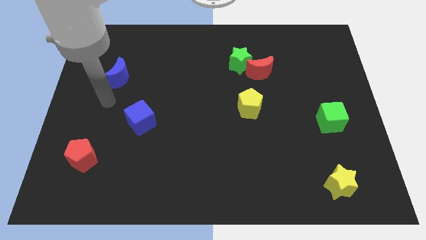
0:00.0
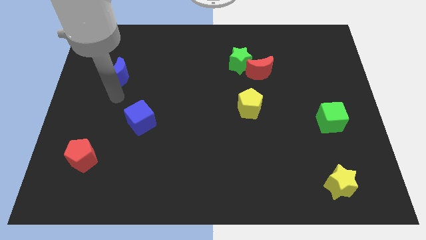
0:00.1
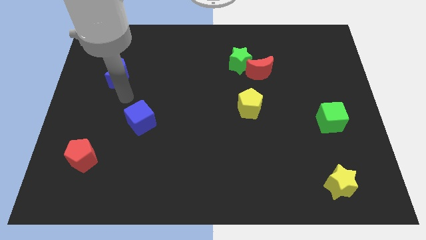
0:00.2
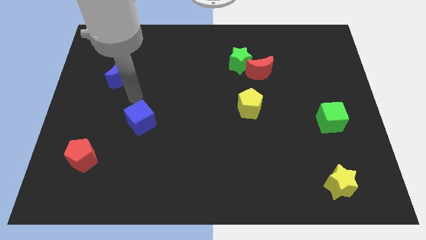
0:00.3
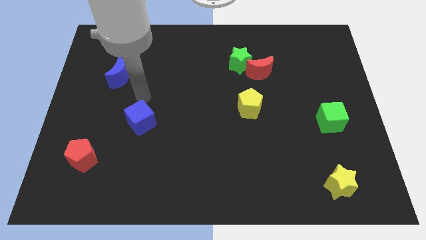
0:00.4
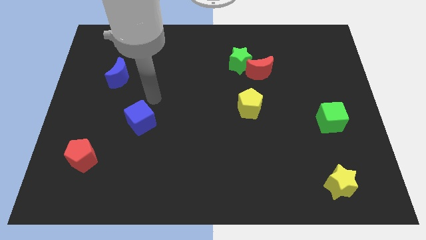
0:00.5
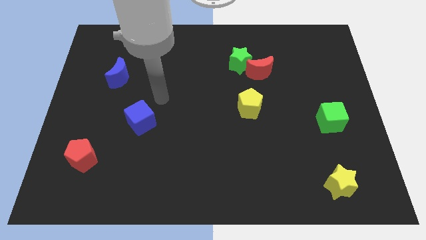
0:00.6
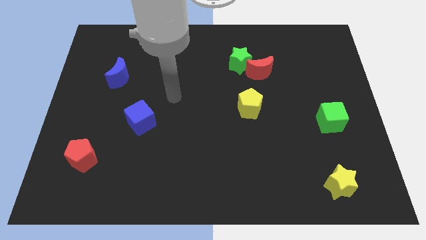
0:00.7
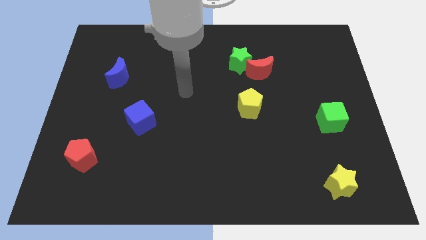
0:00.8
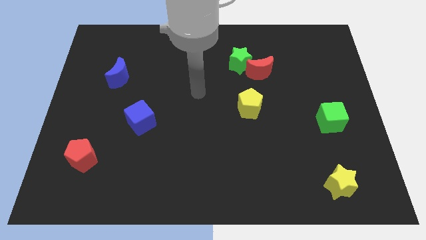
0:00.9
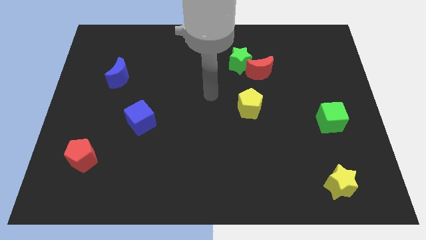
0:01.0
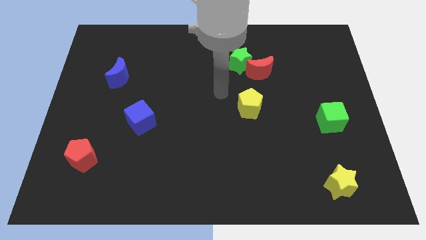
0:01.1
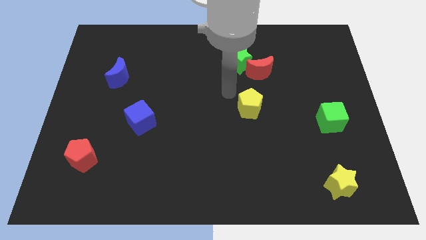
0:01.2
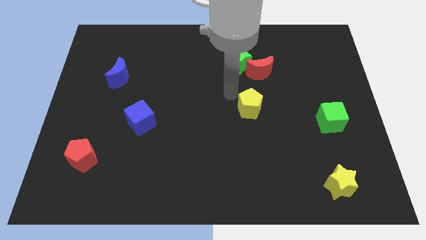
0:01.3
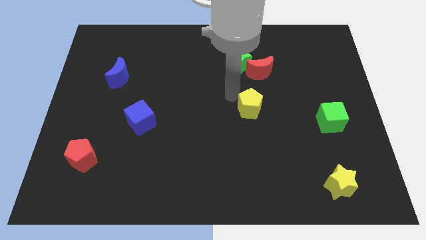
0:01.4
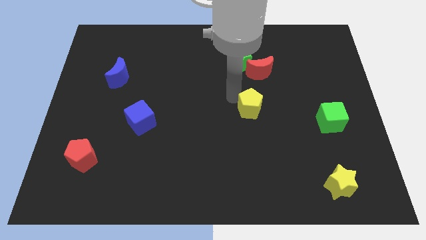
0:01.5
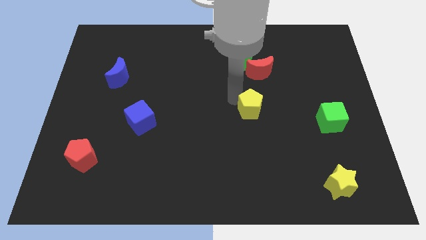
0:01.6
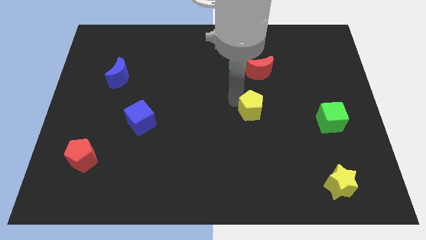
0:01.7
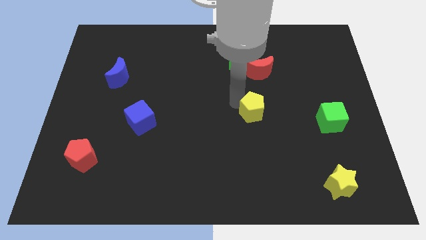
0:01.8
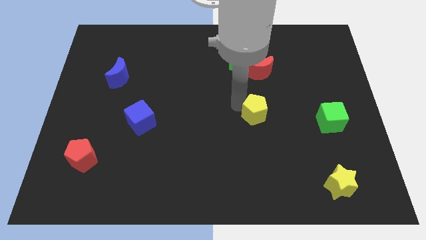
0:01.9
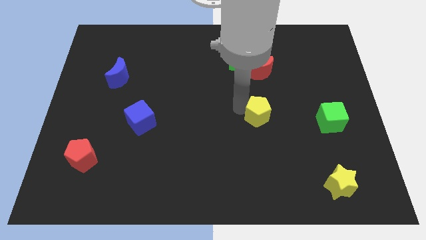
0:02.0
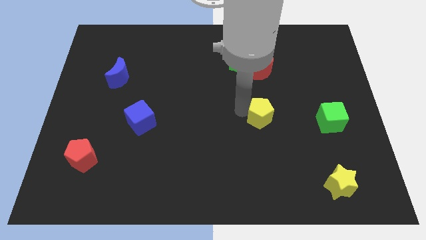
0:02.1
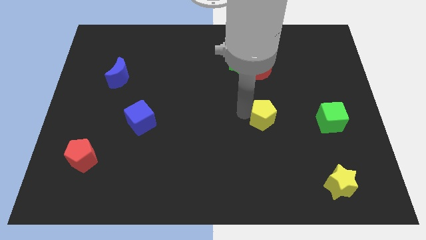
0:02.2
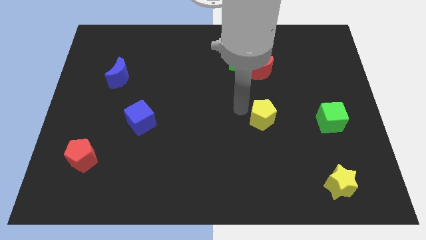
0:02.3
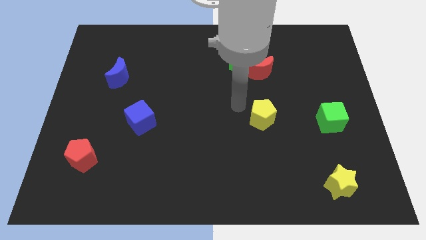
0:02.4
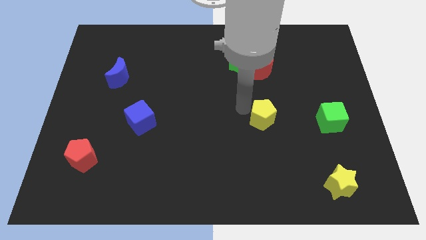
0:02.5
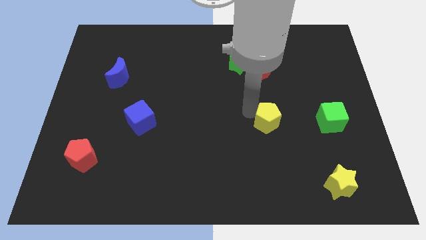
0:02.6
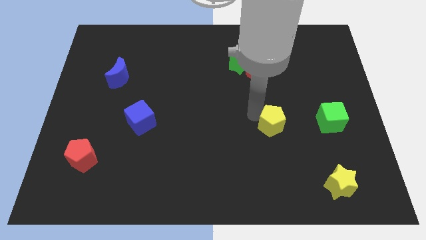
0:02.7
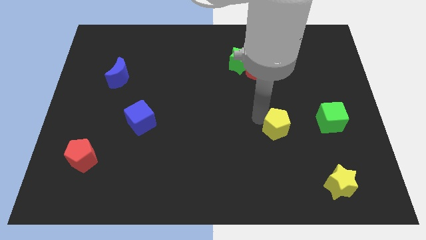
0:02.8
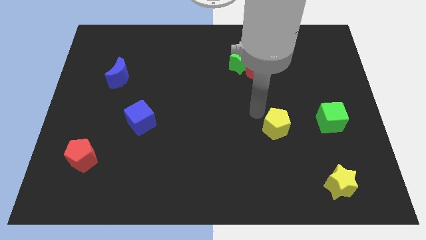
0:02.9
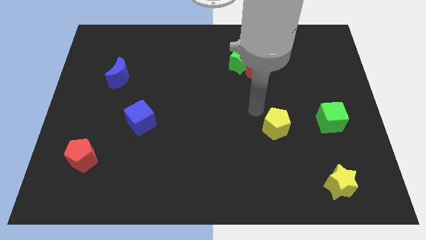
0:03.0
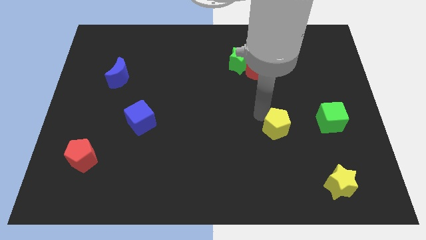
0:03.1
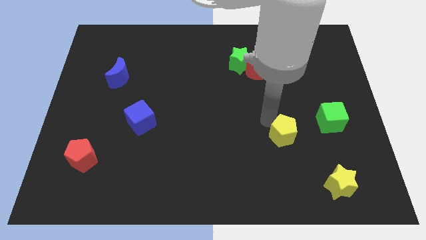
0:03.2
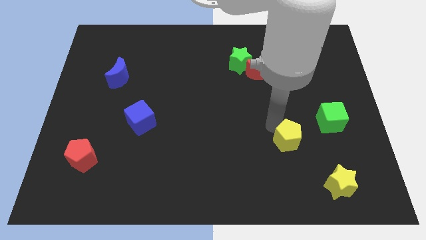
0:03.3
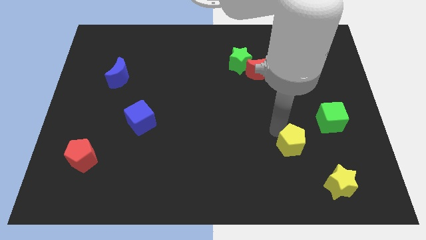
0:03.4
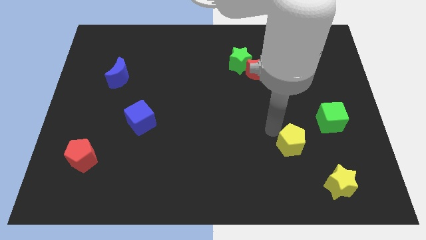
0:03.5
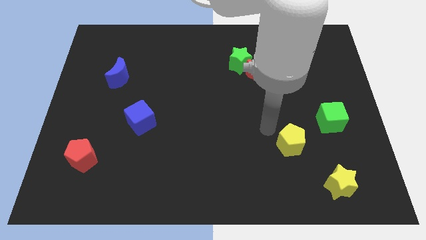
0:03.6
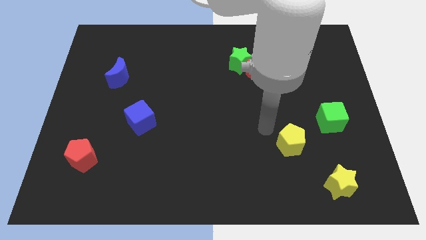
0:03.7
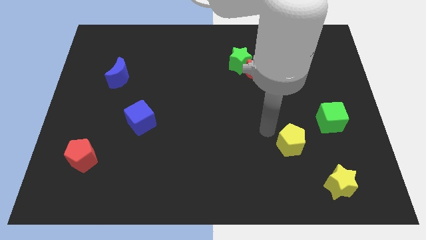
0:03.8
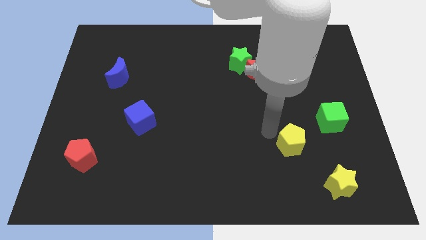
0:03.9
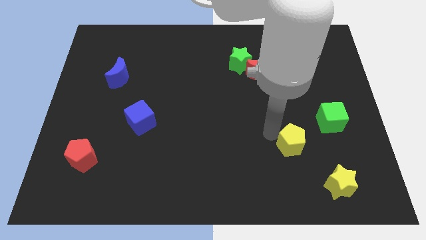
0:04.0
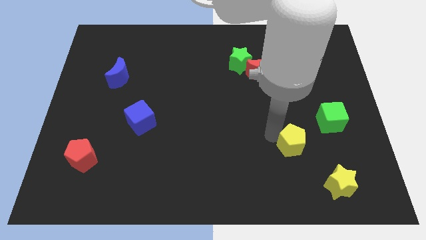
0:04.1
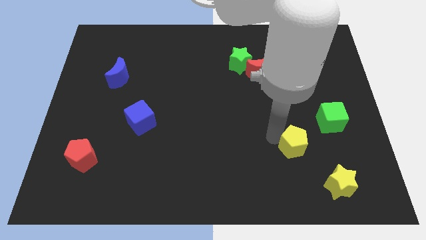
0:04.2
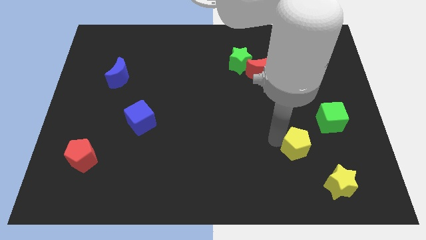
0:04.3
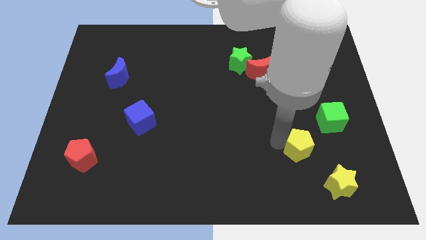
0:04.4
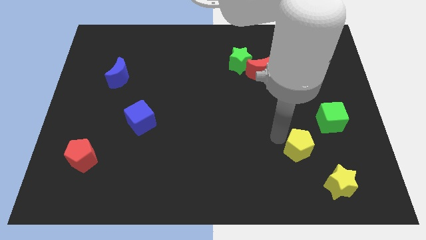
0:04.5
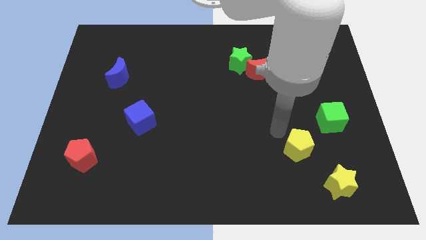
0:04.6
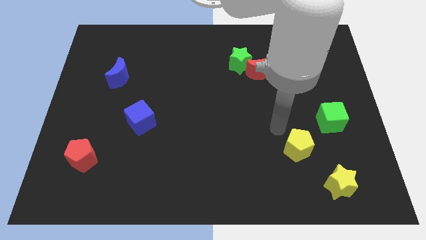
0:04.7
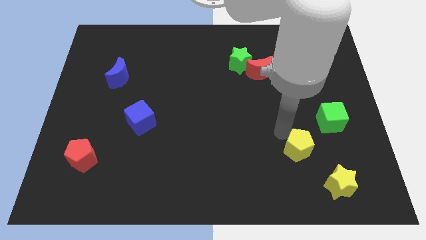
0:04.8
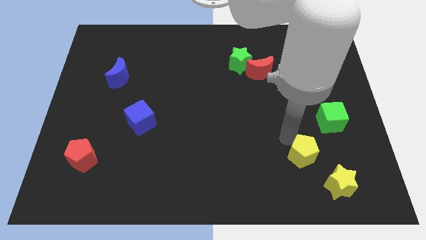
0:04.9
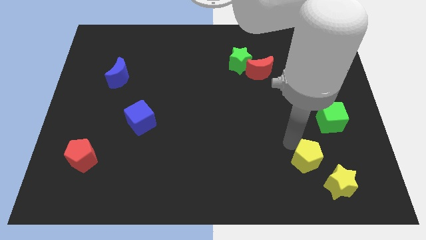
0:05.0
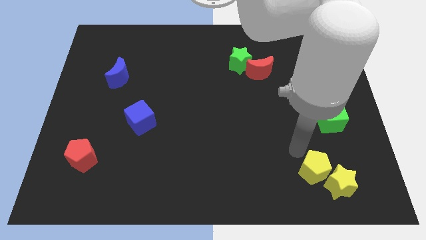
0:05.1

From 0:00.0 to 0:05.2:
move the yellow pentagon to the yellow star

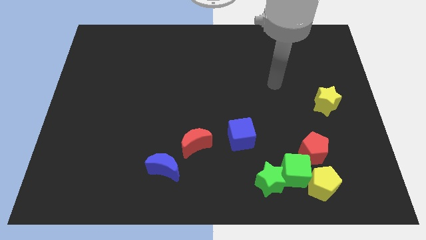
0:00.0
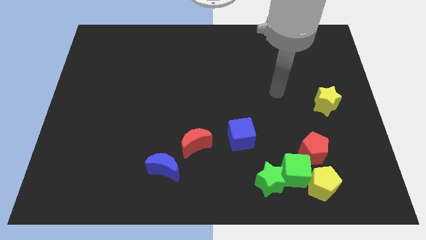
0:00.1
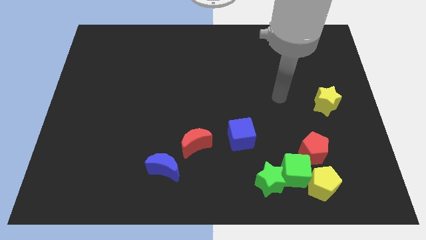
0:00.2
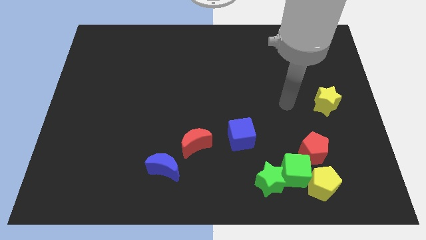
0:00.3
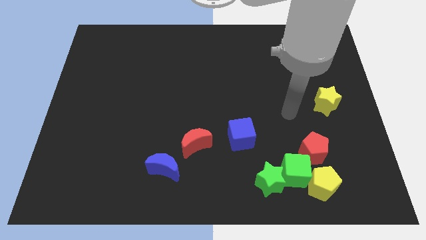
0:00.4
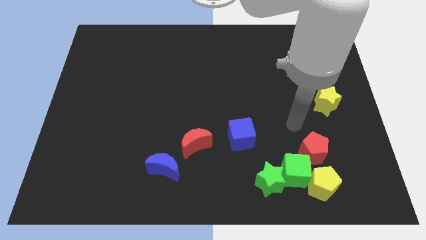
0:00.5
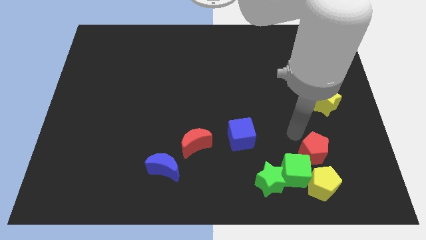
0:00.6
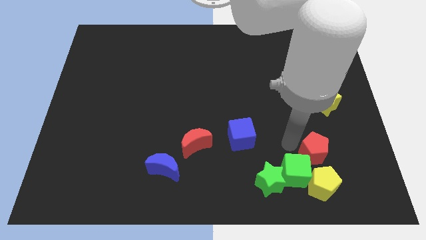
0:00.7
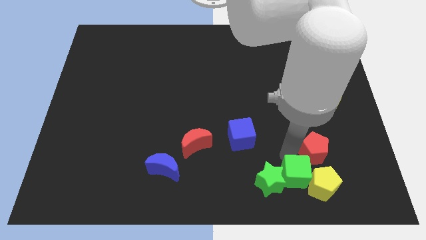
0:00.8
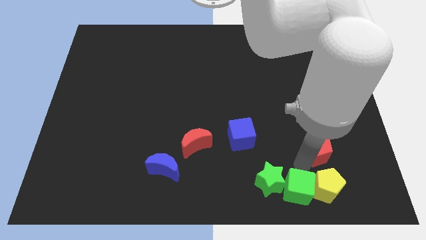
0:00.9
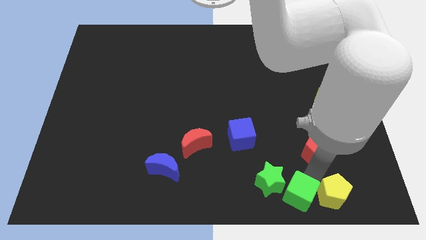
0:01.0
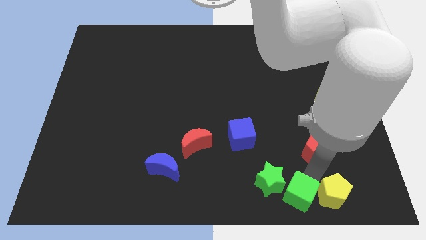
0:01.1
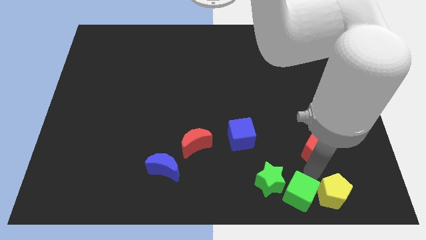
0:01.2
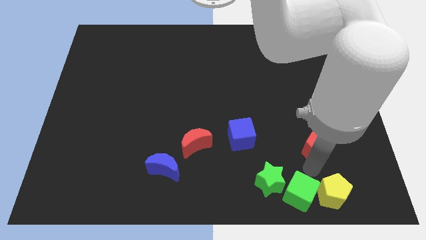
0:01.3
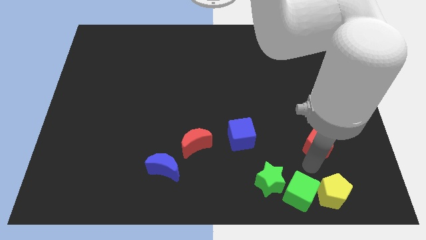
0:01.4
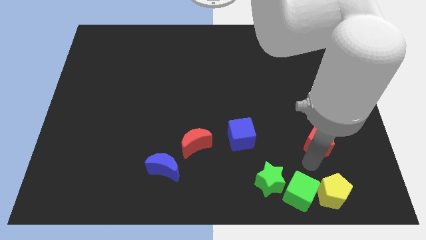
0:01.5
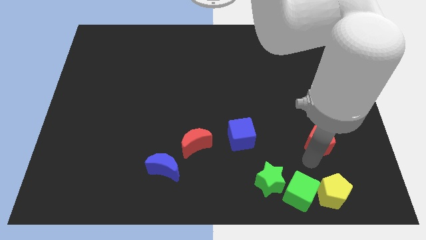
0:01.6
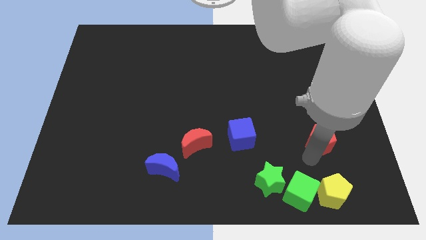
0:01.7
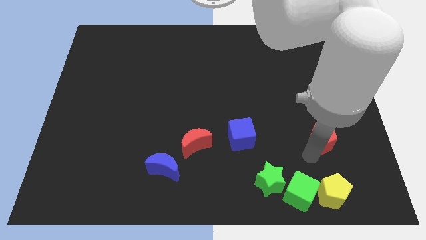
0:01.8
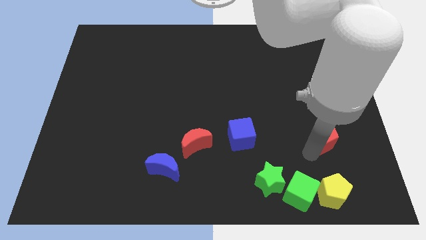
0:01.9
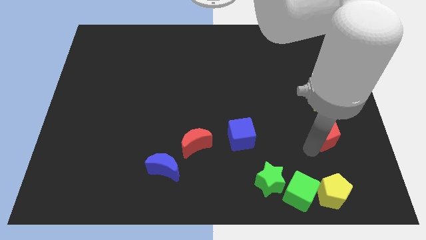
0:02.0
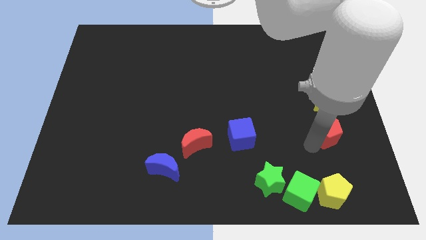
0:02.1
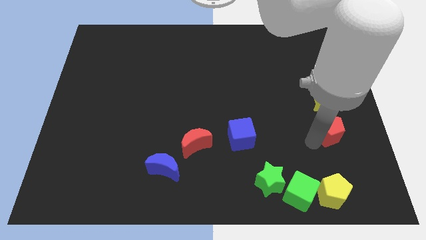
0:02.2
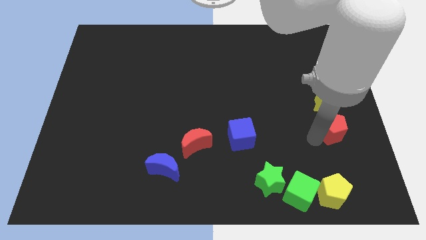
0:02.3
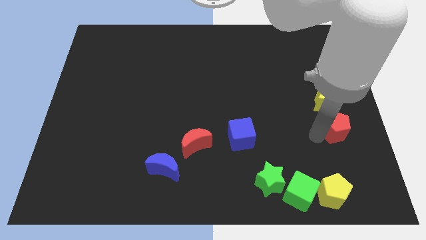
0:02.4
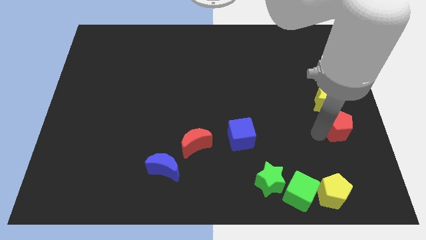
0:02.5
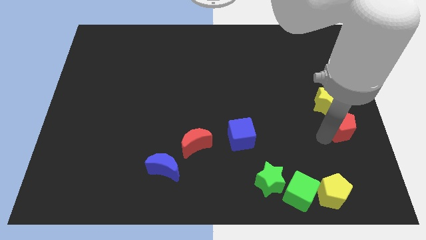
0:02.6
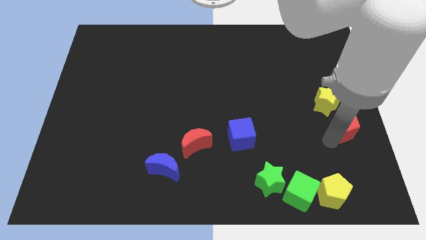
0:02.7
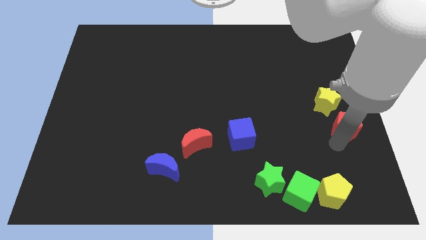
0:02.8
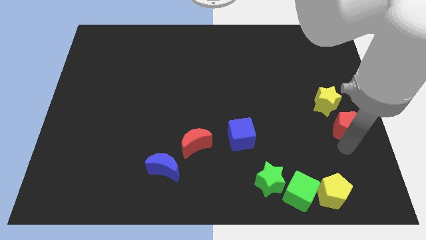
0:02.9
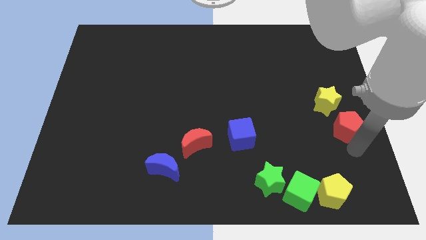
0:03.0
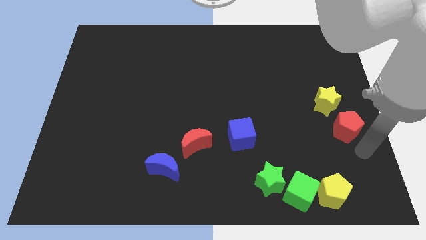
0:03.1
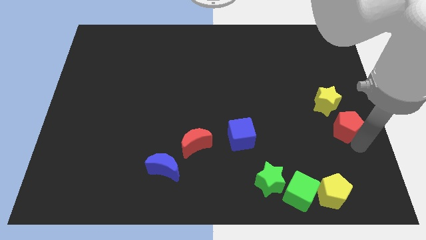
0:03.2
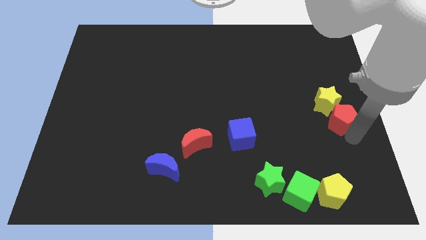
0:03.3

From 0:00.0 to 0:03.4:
push the red pentagon close to the yellow star
